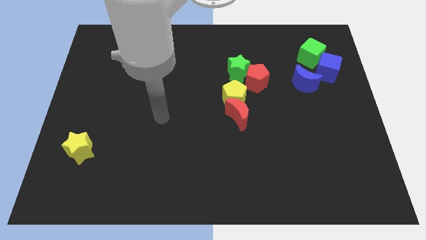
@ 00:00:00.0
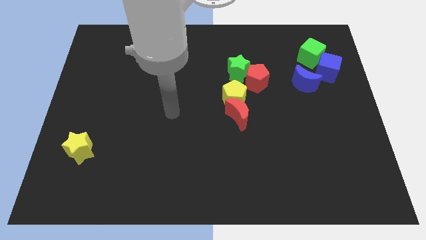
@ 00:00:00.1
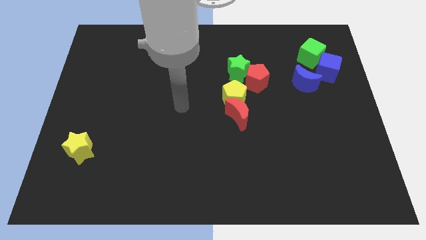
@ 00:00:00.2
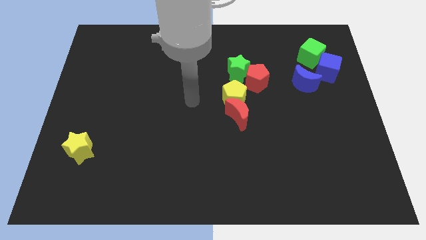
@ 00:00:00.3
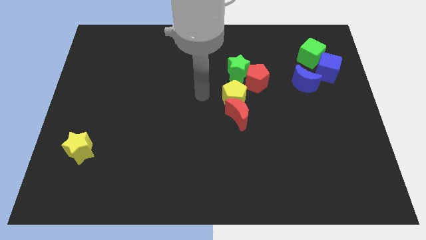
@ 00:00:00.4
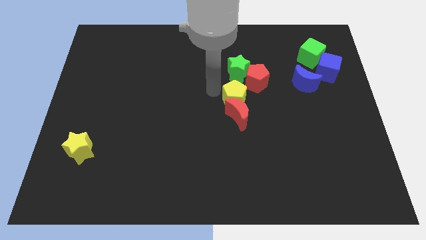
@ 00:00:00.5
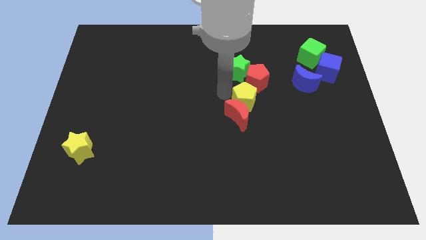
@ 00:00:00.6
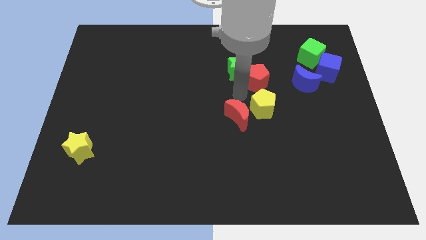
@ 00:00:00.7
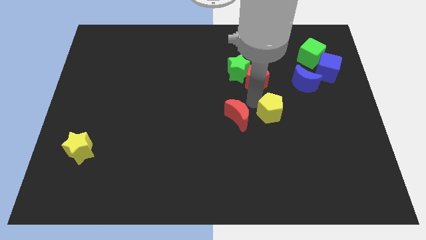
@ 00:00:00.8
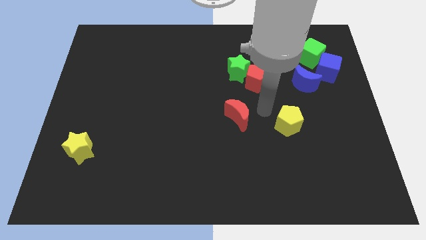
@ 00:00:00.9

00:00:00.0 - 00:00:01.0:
move the red moon away from the yellow pentagon

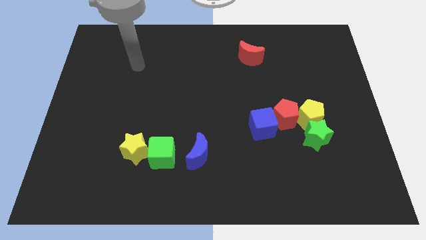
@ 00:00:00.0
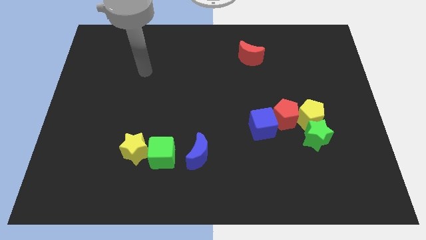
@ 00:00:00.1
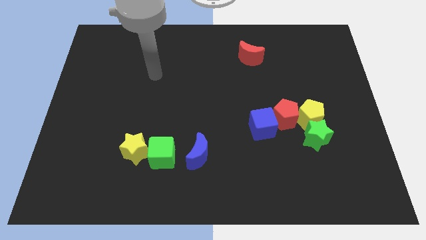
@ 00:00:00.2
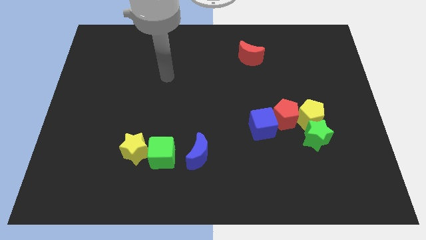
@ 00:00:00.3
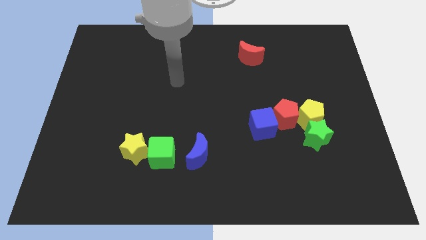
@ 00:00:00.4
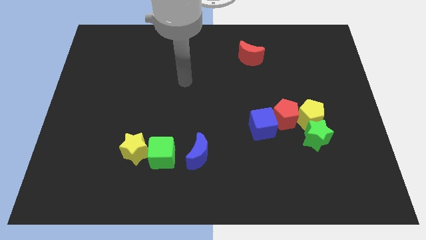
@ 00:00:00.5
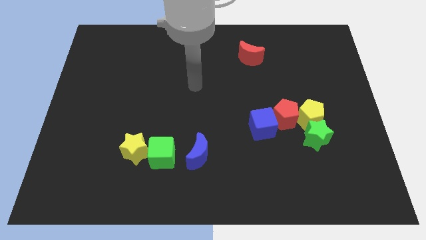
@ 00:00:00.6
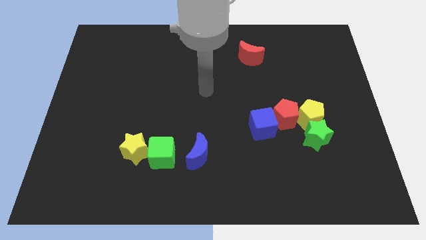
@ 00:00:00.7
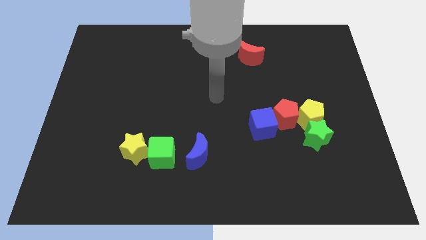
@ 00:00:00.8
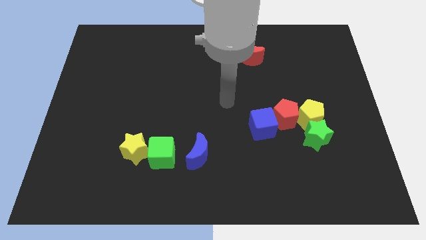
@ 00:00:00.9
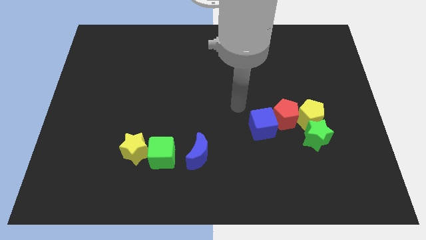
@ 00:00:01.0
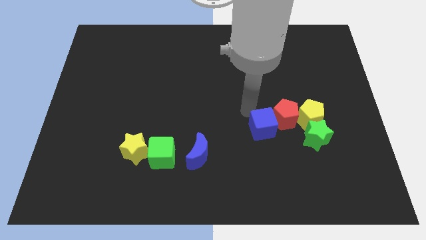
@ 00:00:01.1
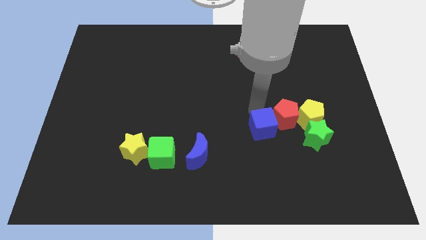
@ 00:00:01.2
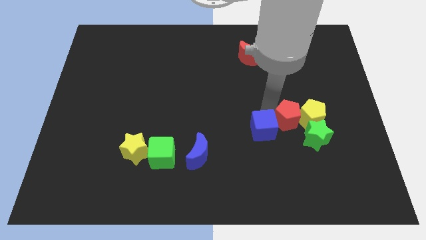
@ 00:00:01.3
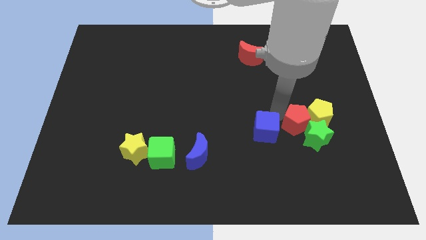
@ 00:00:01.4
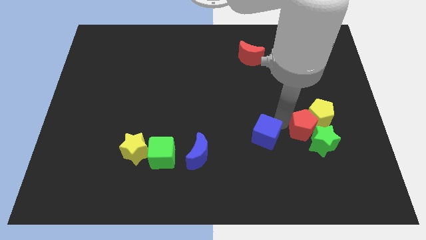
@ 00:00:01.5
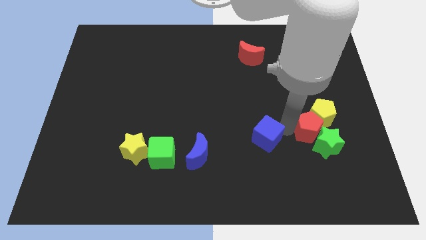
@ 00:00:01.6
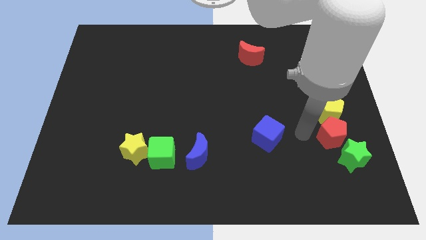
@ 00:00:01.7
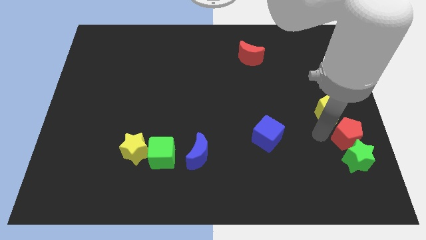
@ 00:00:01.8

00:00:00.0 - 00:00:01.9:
separate the yellow pentagon from the red pentagon and green star

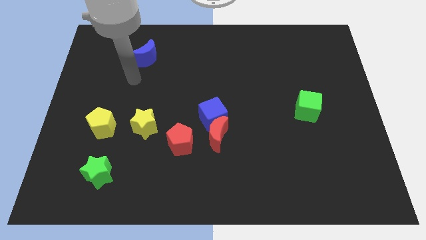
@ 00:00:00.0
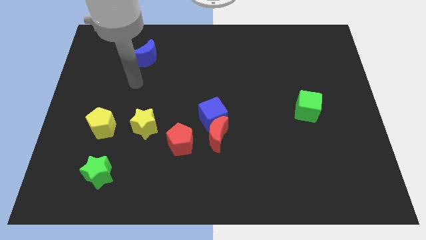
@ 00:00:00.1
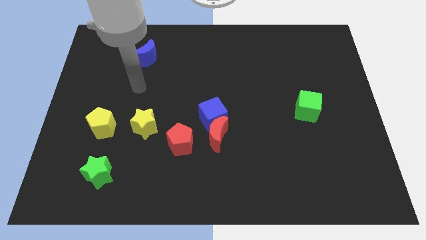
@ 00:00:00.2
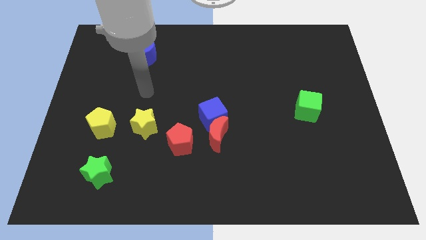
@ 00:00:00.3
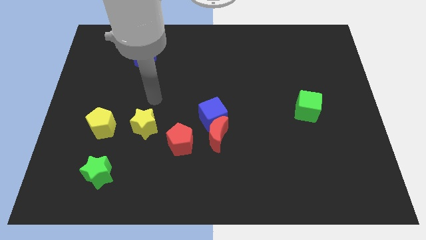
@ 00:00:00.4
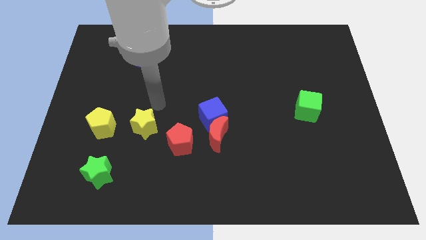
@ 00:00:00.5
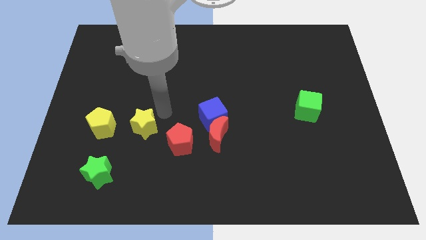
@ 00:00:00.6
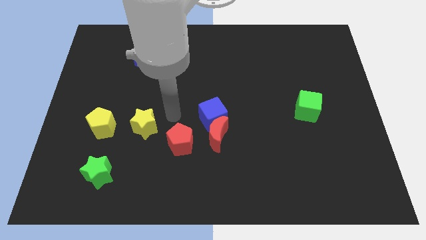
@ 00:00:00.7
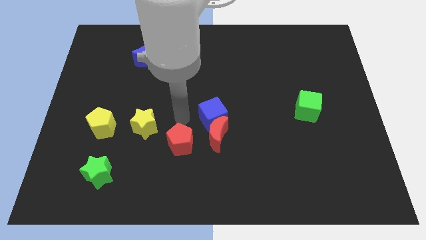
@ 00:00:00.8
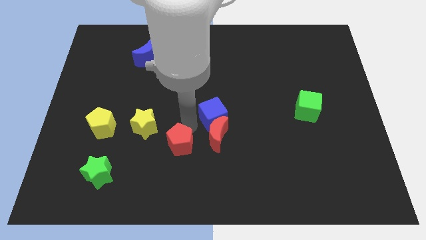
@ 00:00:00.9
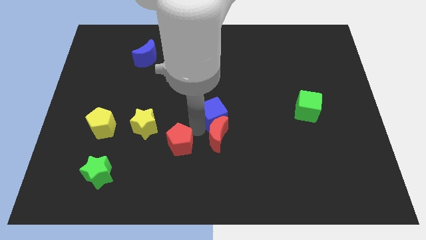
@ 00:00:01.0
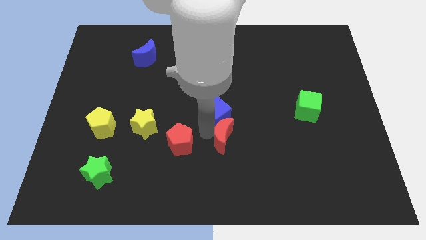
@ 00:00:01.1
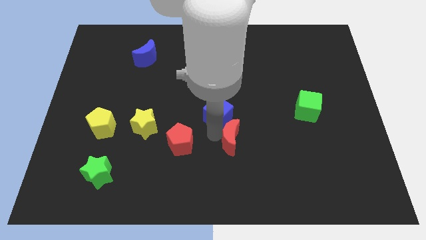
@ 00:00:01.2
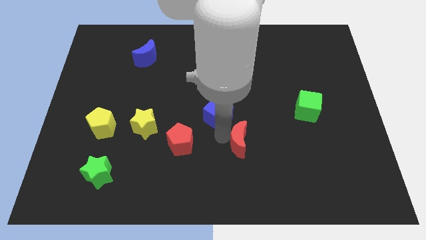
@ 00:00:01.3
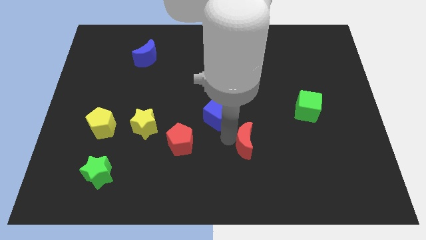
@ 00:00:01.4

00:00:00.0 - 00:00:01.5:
pull the red moon apart from the blue cube and red pentagon

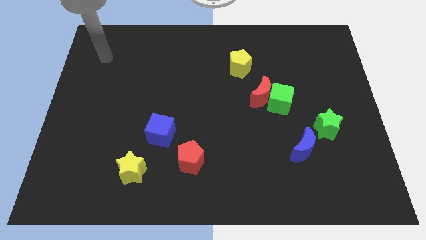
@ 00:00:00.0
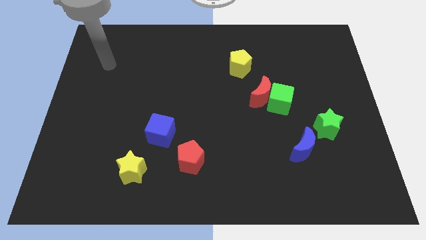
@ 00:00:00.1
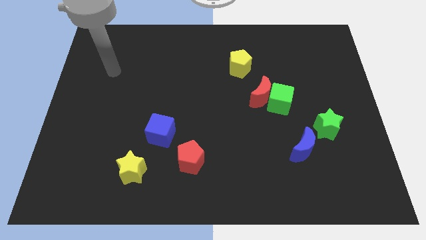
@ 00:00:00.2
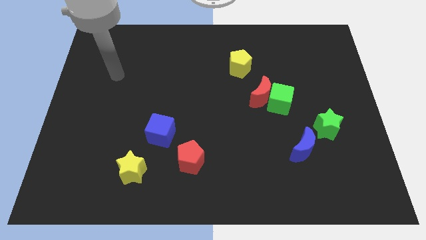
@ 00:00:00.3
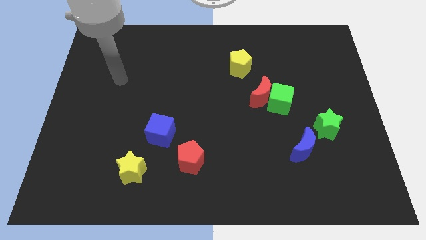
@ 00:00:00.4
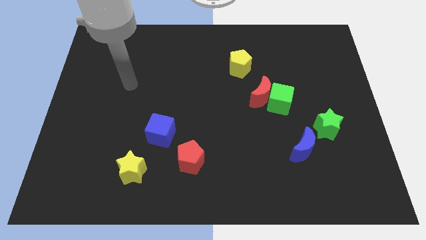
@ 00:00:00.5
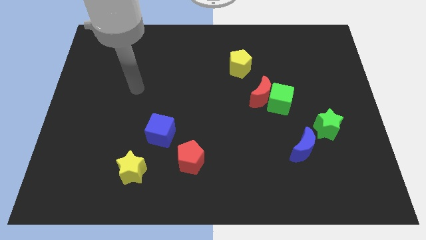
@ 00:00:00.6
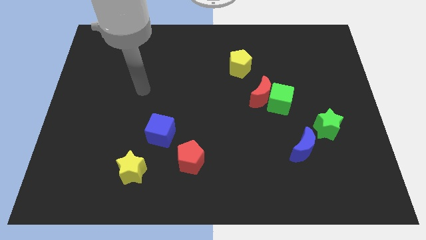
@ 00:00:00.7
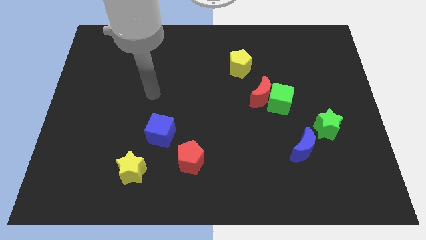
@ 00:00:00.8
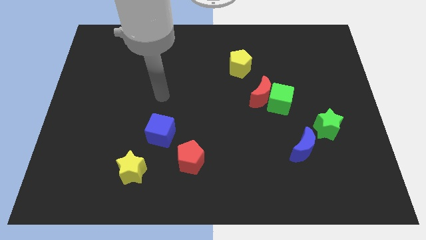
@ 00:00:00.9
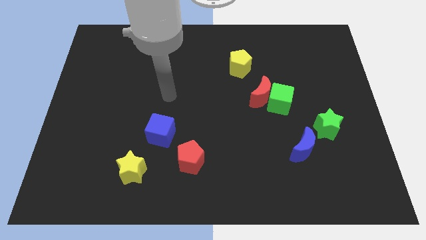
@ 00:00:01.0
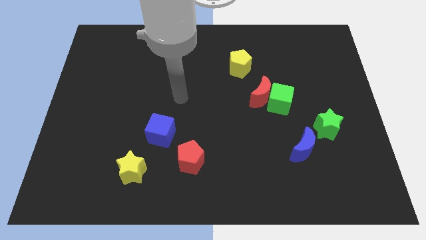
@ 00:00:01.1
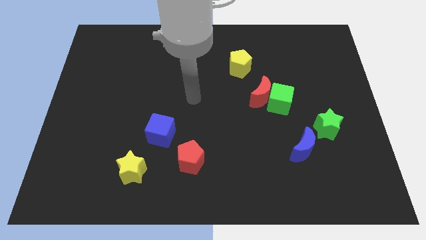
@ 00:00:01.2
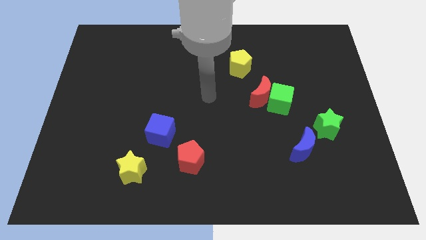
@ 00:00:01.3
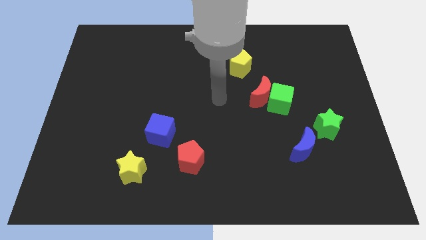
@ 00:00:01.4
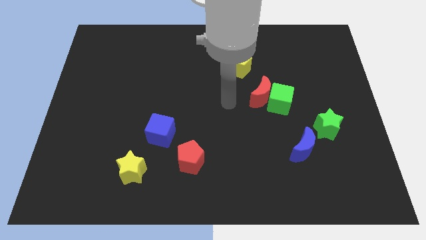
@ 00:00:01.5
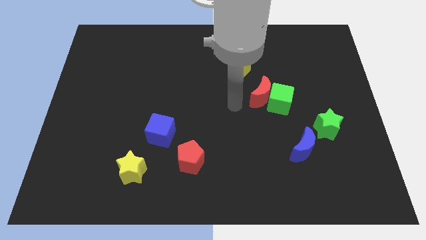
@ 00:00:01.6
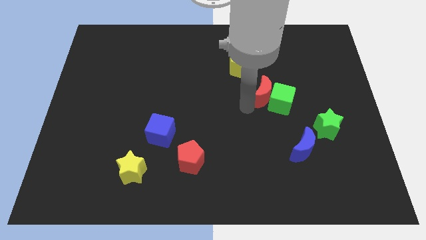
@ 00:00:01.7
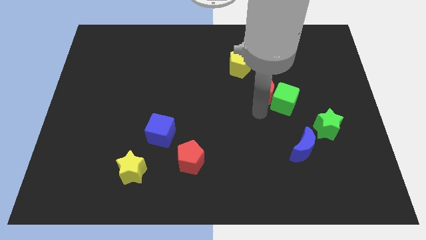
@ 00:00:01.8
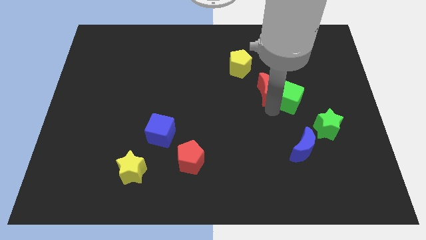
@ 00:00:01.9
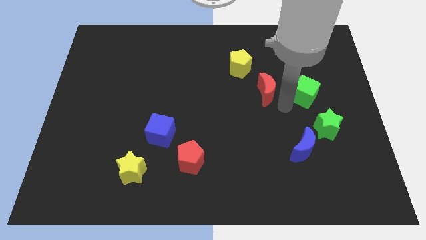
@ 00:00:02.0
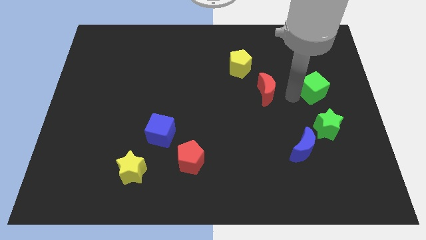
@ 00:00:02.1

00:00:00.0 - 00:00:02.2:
pull the red moon apart from the green cube

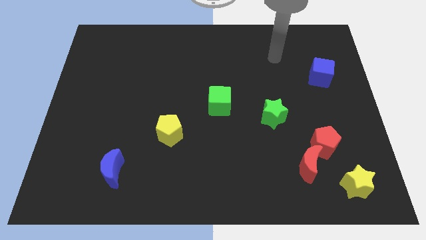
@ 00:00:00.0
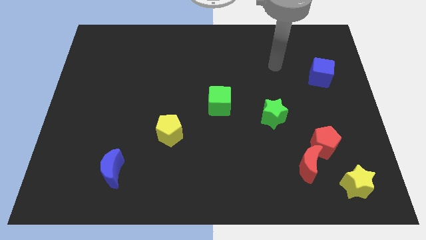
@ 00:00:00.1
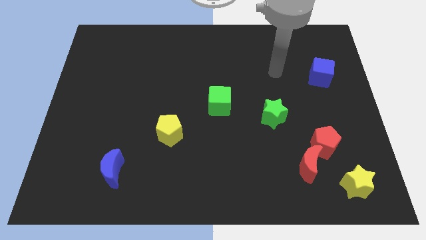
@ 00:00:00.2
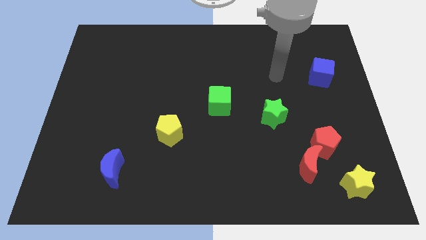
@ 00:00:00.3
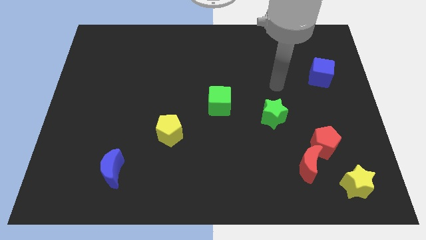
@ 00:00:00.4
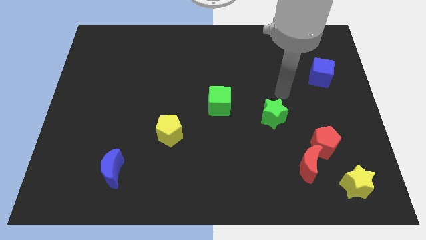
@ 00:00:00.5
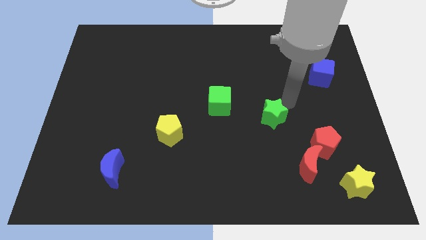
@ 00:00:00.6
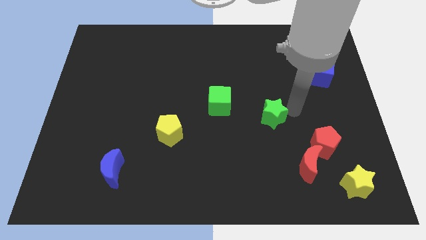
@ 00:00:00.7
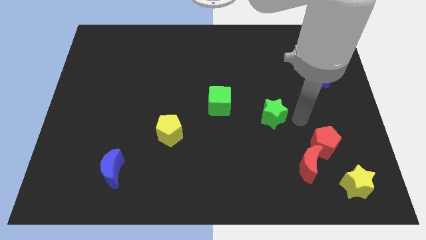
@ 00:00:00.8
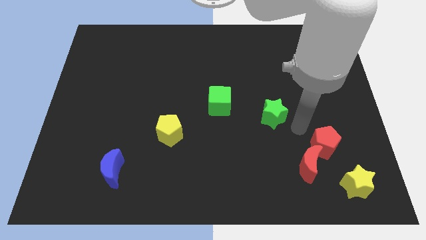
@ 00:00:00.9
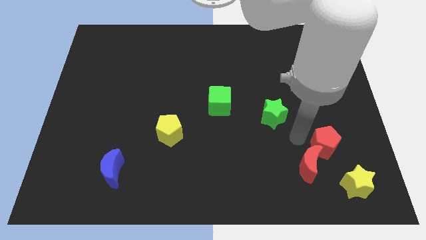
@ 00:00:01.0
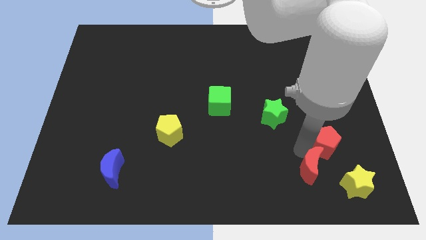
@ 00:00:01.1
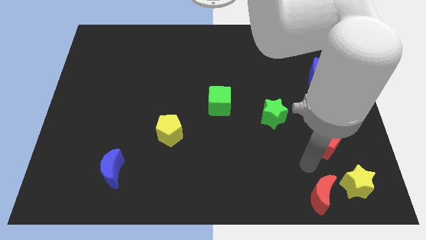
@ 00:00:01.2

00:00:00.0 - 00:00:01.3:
move the red pentagon away from the red moon

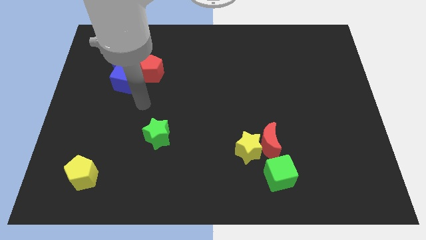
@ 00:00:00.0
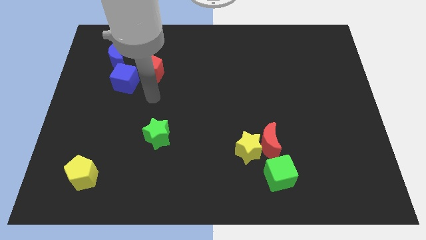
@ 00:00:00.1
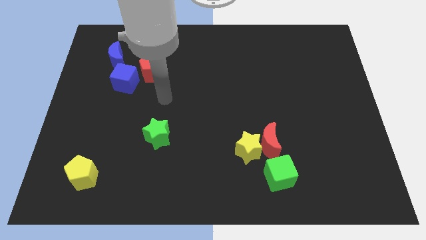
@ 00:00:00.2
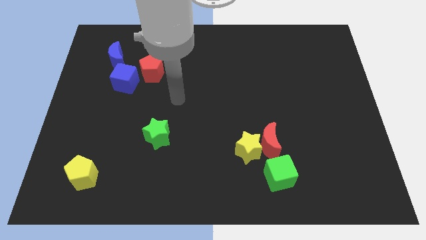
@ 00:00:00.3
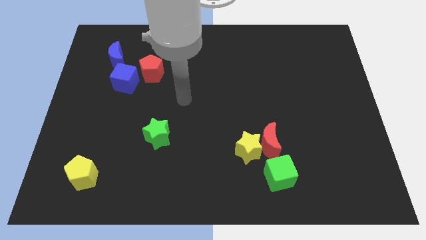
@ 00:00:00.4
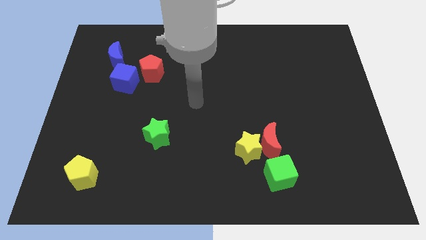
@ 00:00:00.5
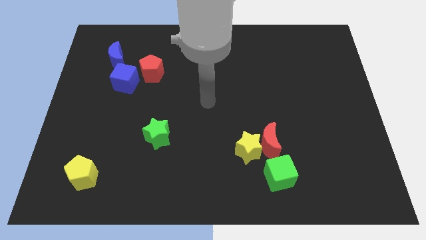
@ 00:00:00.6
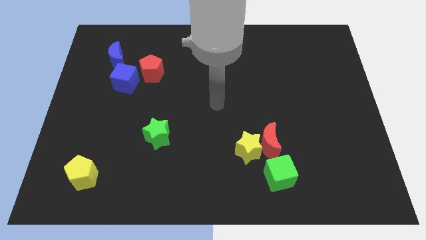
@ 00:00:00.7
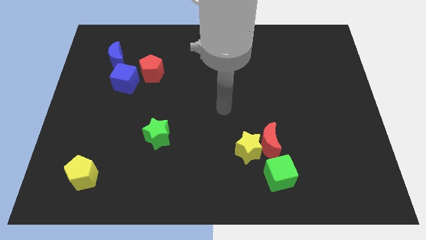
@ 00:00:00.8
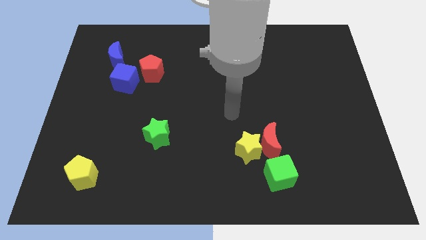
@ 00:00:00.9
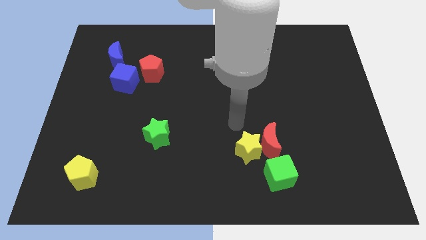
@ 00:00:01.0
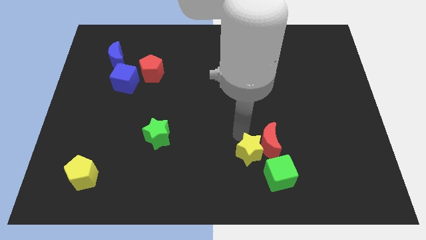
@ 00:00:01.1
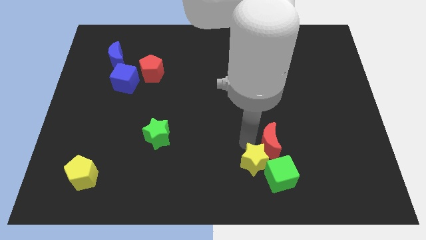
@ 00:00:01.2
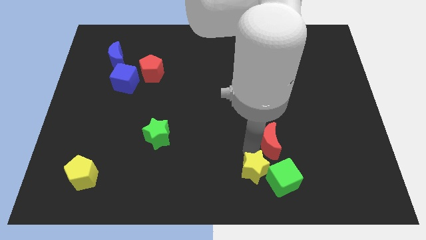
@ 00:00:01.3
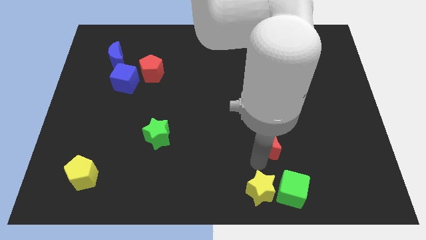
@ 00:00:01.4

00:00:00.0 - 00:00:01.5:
move the red moon away from the yellow star and green cube
